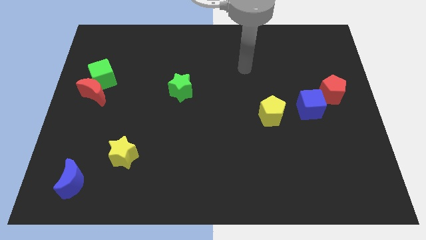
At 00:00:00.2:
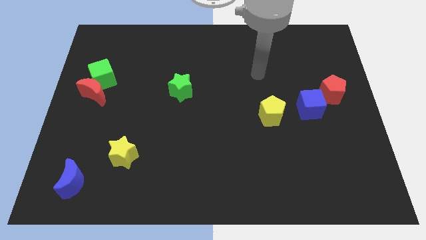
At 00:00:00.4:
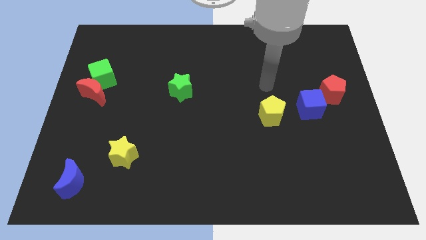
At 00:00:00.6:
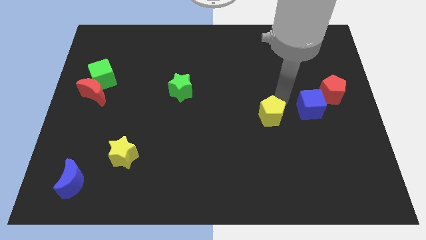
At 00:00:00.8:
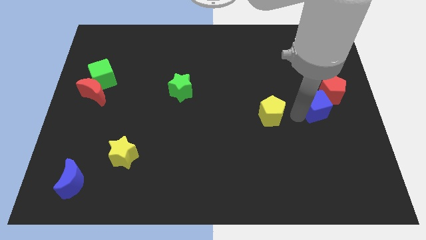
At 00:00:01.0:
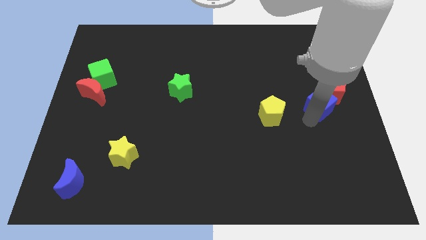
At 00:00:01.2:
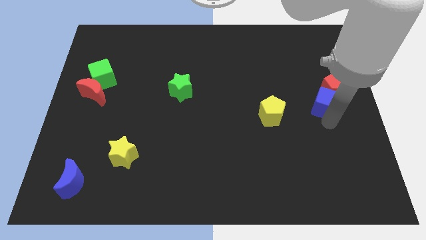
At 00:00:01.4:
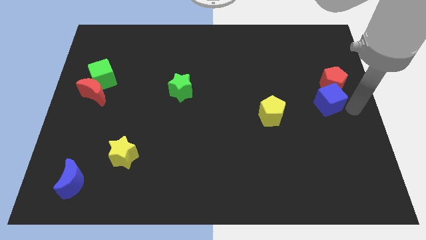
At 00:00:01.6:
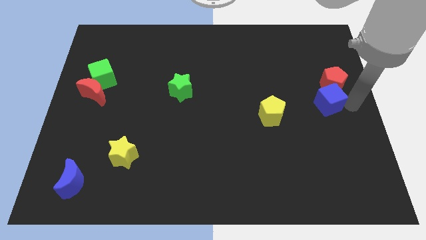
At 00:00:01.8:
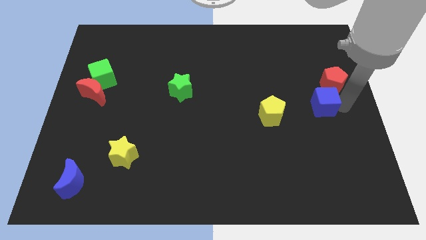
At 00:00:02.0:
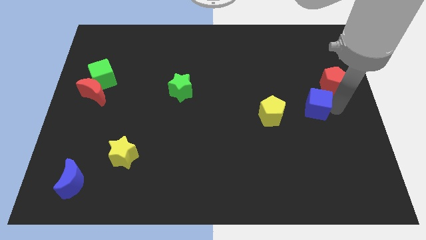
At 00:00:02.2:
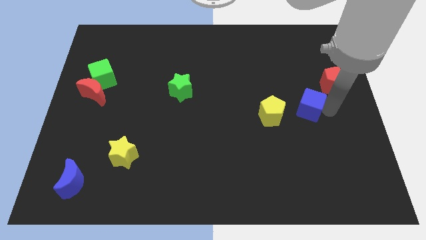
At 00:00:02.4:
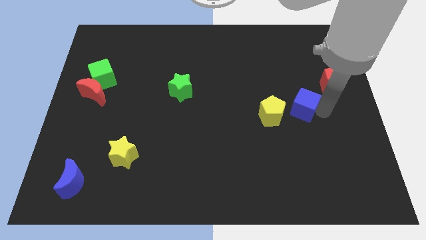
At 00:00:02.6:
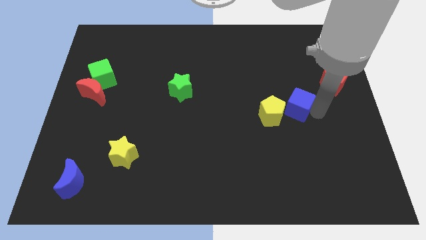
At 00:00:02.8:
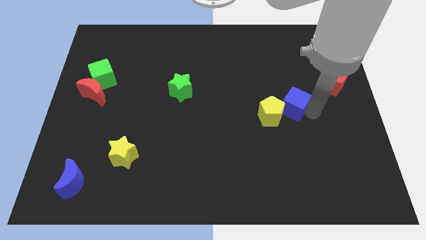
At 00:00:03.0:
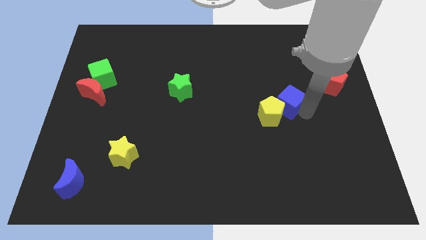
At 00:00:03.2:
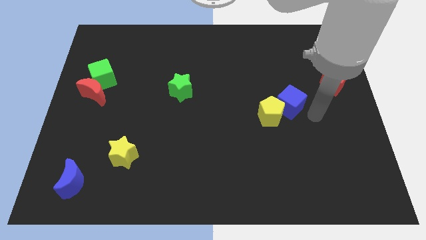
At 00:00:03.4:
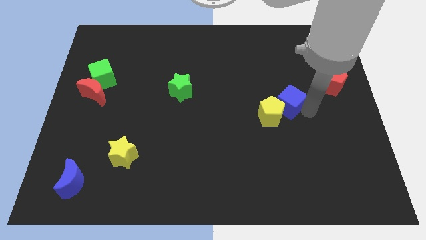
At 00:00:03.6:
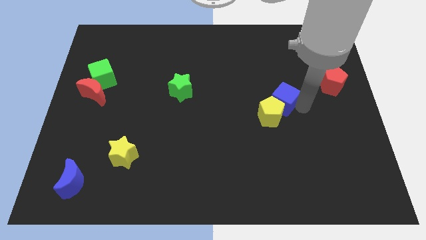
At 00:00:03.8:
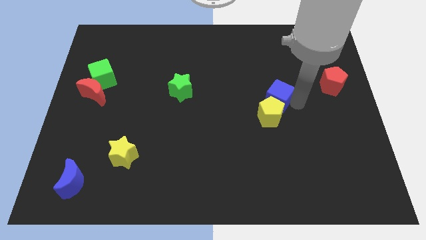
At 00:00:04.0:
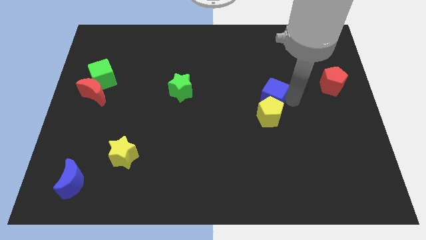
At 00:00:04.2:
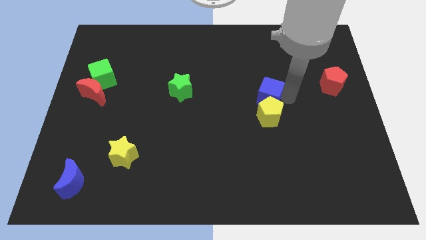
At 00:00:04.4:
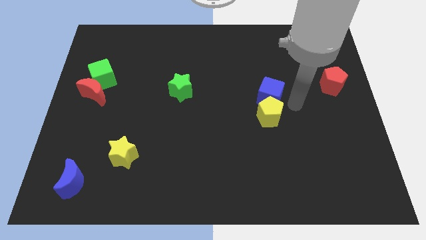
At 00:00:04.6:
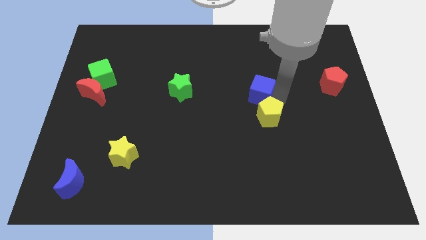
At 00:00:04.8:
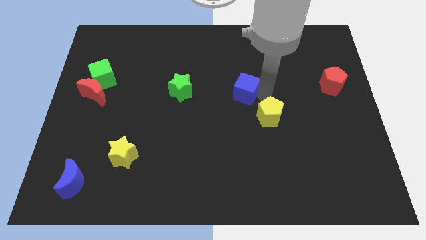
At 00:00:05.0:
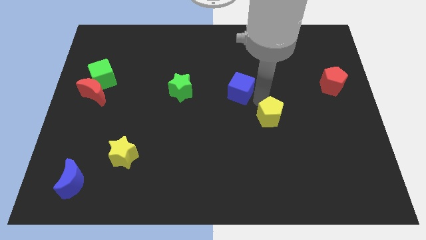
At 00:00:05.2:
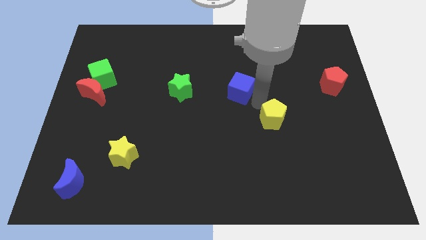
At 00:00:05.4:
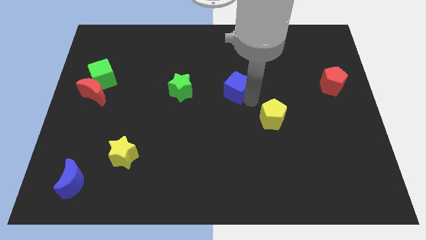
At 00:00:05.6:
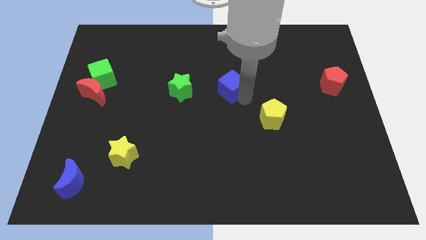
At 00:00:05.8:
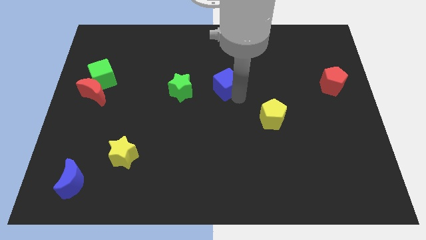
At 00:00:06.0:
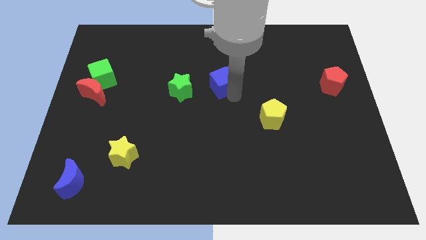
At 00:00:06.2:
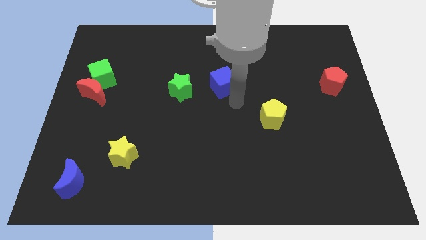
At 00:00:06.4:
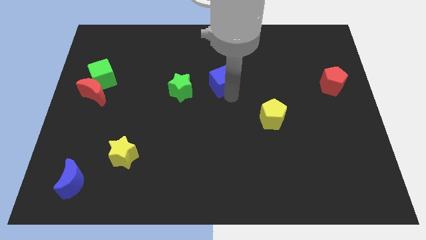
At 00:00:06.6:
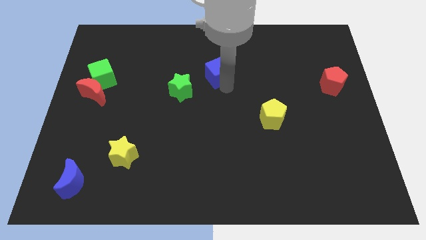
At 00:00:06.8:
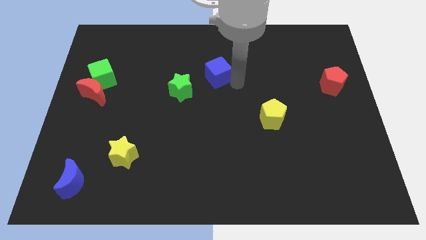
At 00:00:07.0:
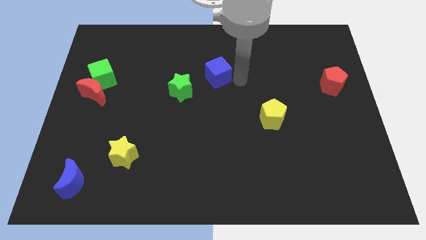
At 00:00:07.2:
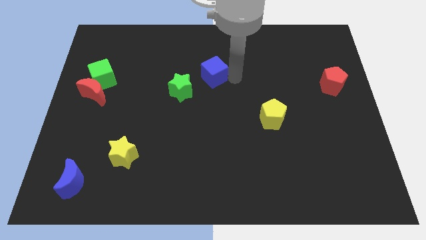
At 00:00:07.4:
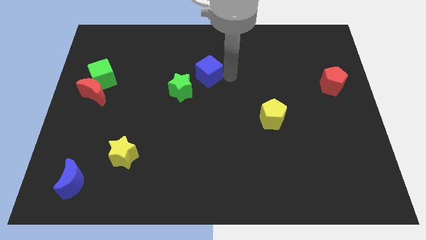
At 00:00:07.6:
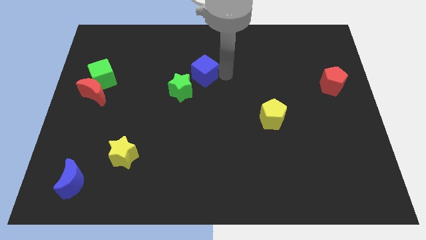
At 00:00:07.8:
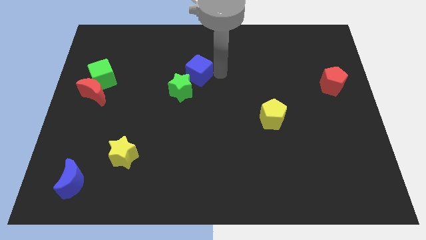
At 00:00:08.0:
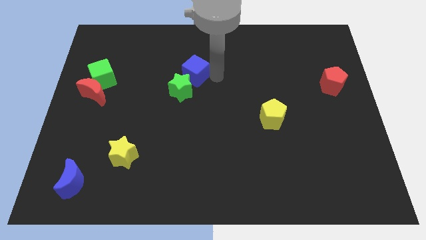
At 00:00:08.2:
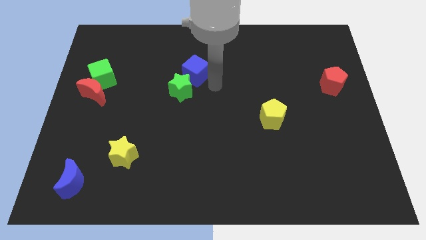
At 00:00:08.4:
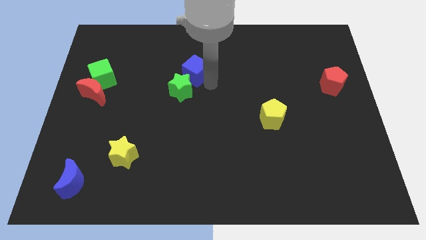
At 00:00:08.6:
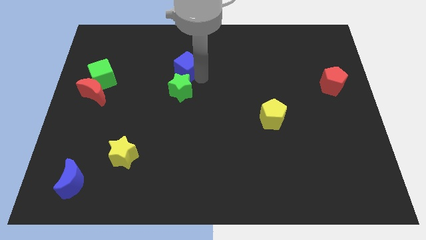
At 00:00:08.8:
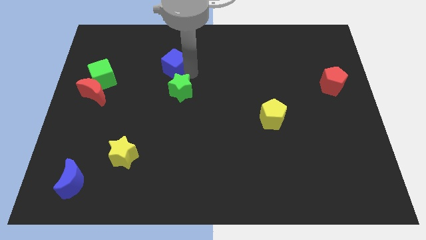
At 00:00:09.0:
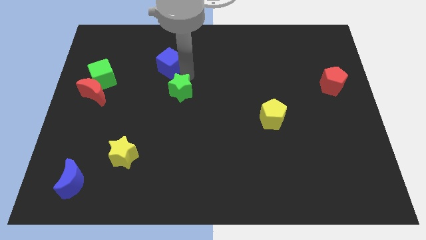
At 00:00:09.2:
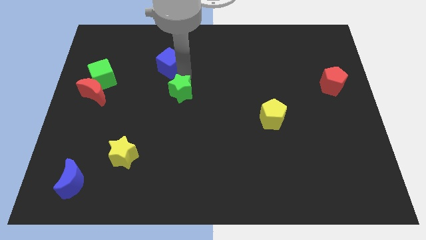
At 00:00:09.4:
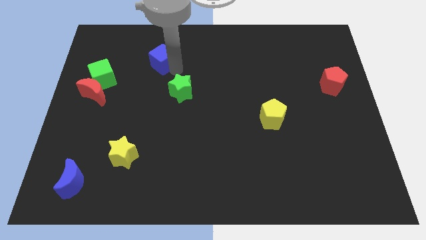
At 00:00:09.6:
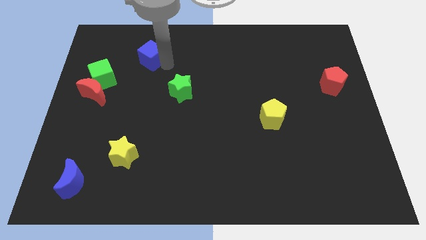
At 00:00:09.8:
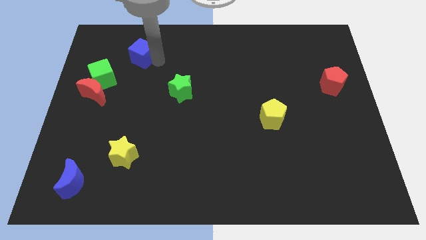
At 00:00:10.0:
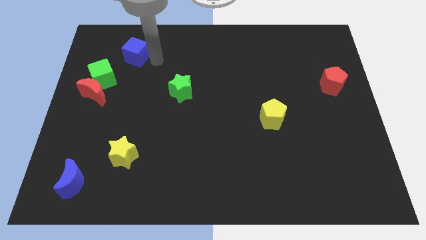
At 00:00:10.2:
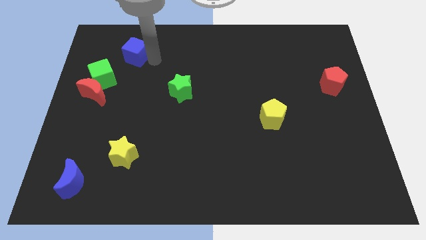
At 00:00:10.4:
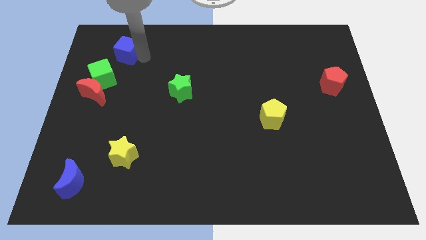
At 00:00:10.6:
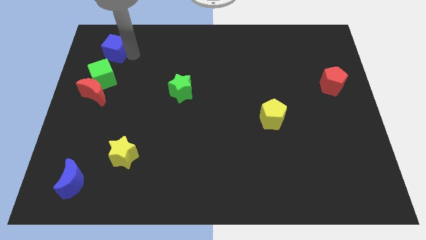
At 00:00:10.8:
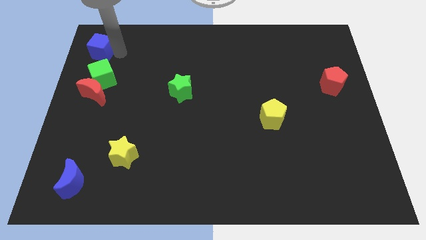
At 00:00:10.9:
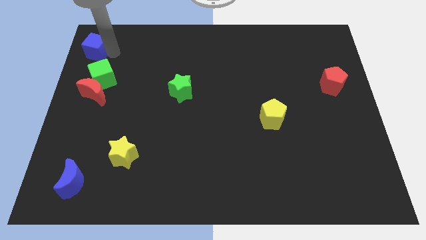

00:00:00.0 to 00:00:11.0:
push the blue cube to the top left of the board

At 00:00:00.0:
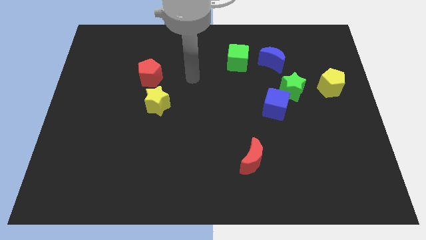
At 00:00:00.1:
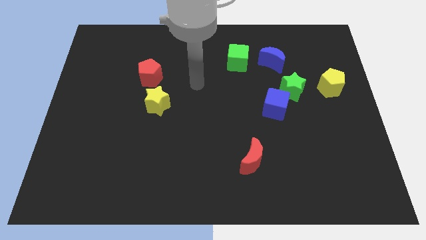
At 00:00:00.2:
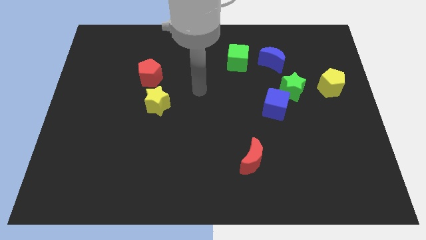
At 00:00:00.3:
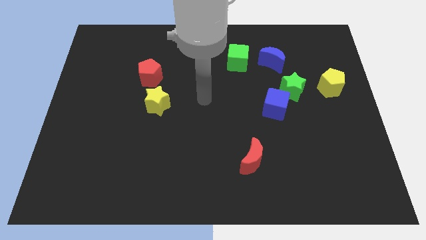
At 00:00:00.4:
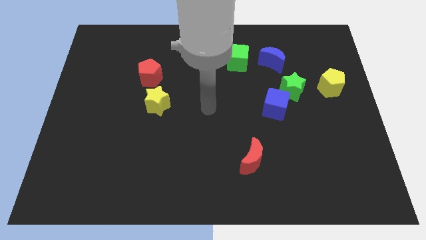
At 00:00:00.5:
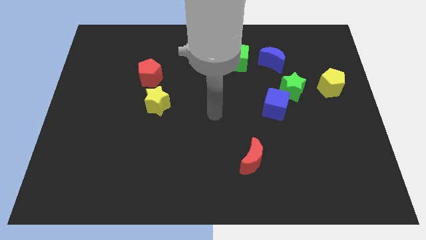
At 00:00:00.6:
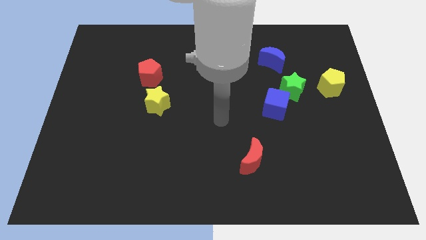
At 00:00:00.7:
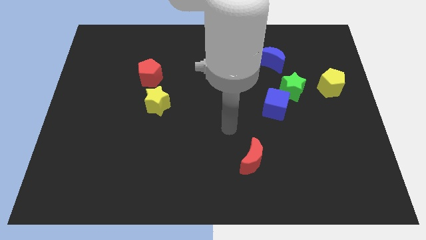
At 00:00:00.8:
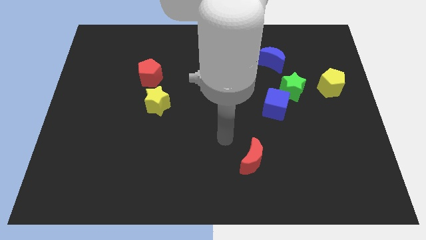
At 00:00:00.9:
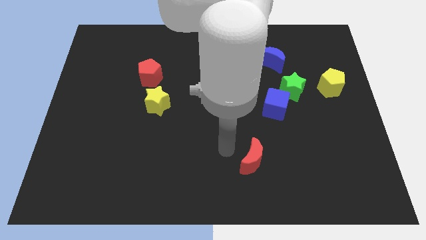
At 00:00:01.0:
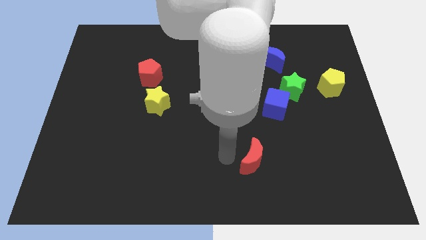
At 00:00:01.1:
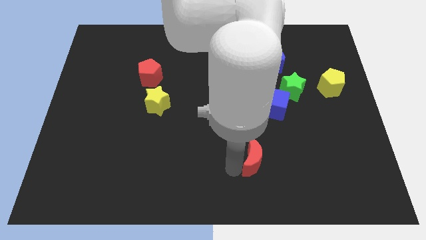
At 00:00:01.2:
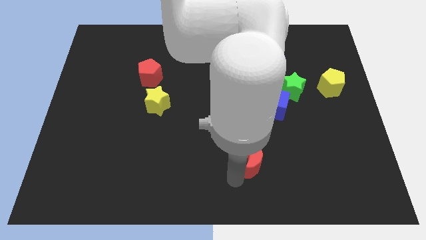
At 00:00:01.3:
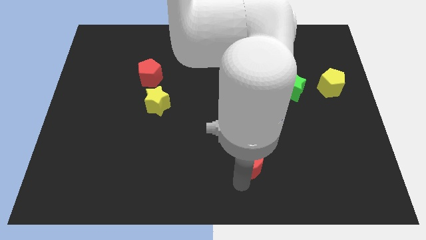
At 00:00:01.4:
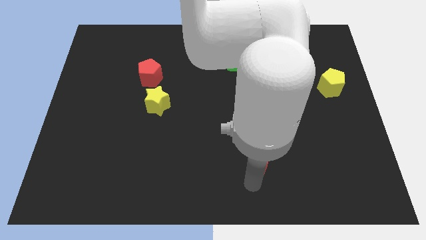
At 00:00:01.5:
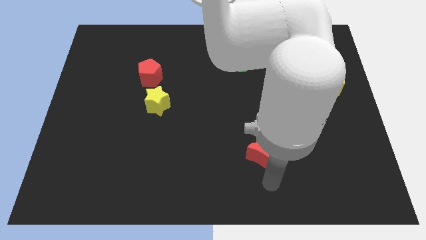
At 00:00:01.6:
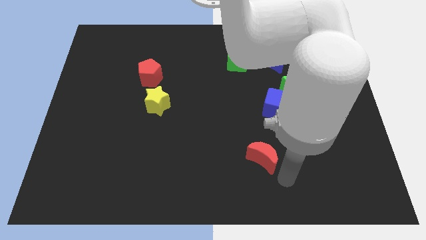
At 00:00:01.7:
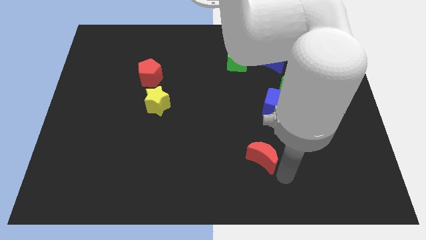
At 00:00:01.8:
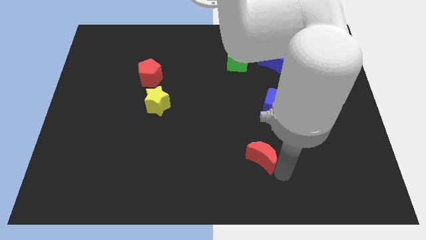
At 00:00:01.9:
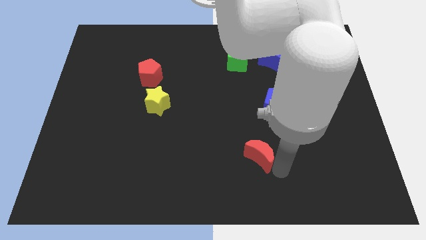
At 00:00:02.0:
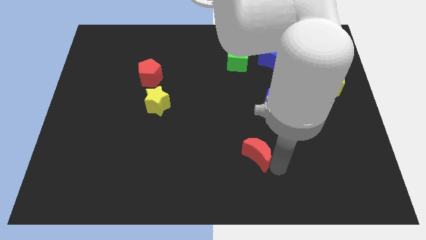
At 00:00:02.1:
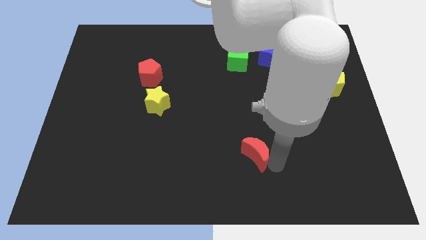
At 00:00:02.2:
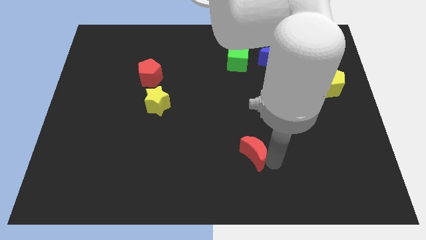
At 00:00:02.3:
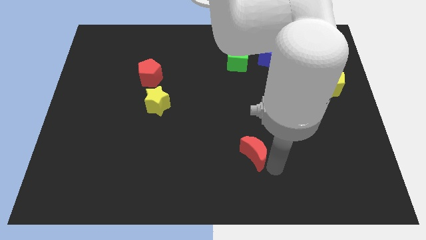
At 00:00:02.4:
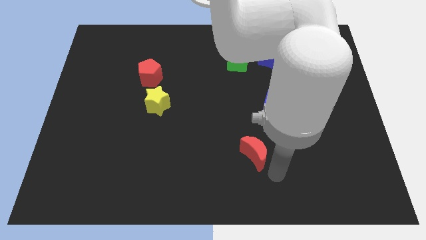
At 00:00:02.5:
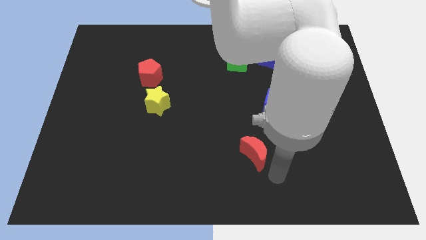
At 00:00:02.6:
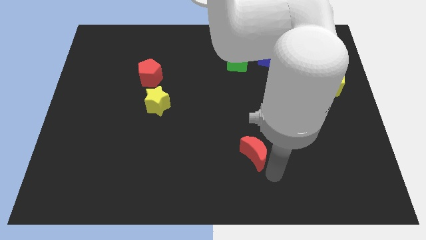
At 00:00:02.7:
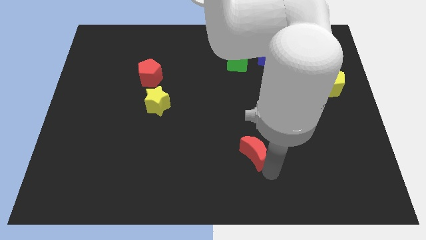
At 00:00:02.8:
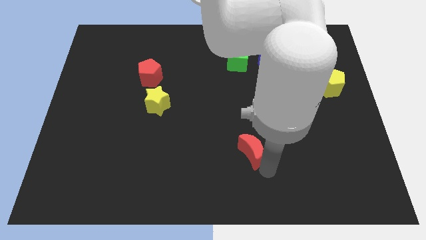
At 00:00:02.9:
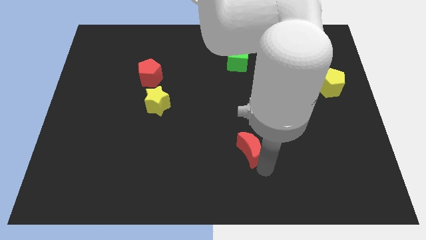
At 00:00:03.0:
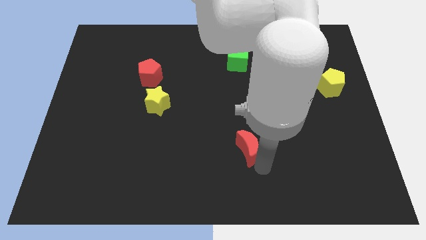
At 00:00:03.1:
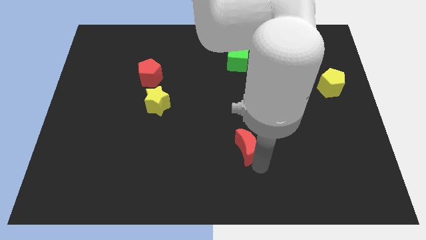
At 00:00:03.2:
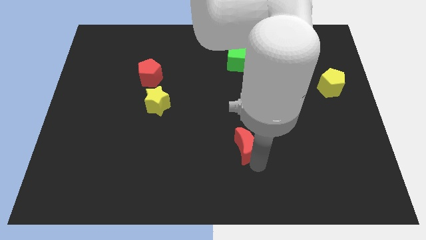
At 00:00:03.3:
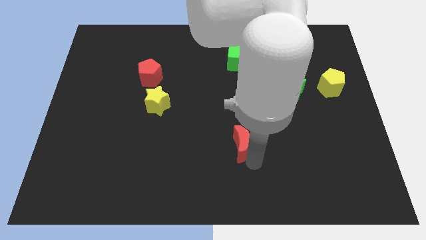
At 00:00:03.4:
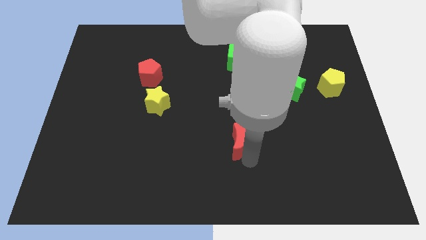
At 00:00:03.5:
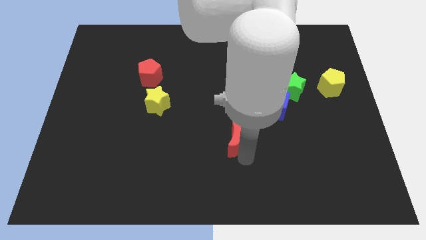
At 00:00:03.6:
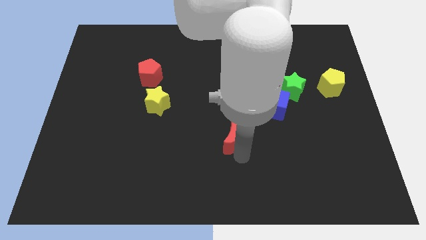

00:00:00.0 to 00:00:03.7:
push the red moon to the middle
